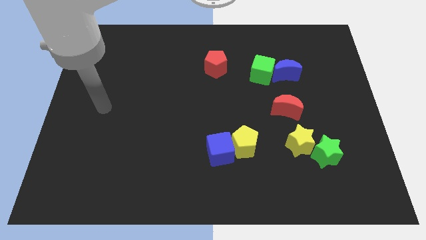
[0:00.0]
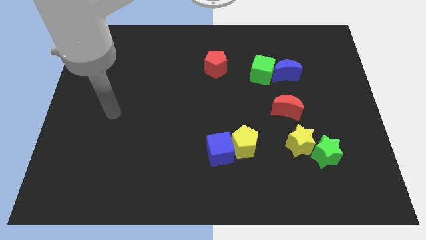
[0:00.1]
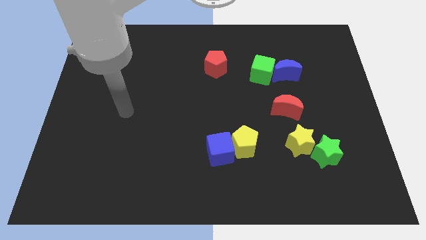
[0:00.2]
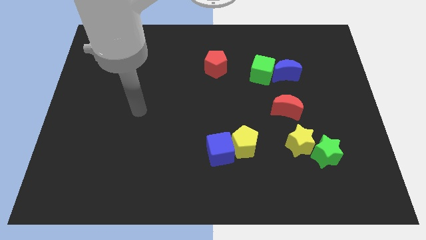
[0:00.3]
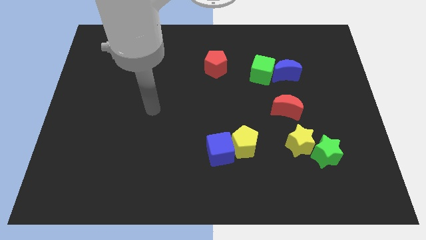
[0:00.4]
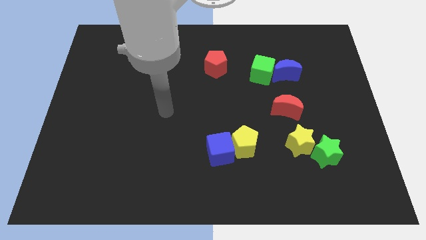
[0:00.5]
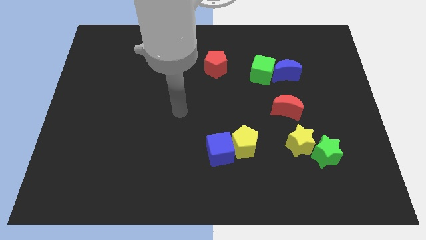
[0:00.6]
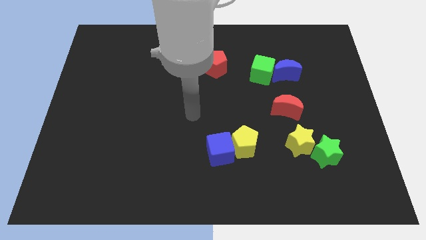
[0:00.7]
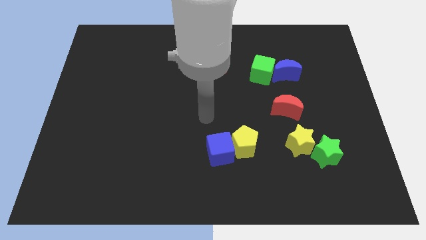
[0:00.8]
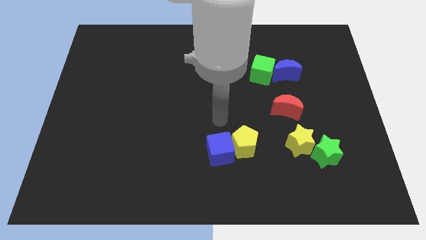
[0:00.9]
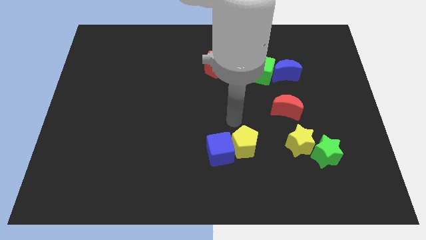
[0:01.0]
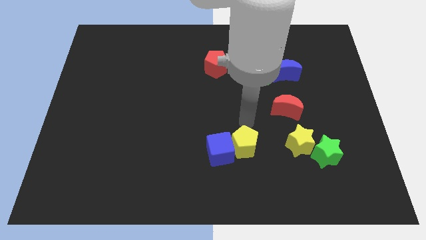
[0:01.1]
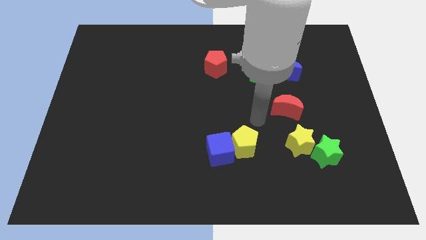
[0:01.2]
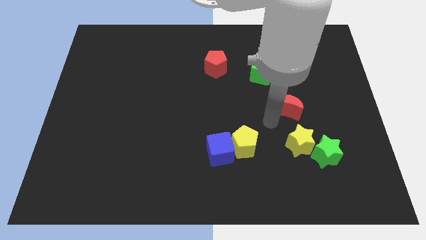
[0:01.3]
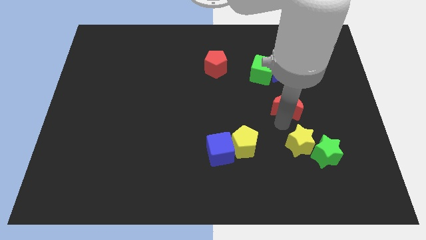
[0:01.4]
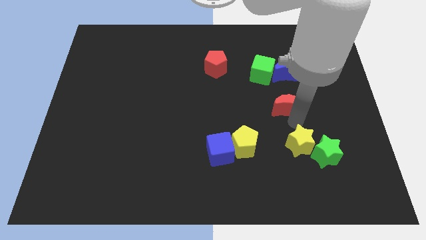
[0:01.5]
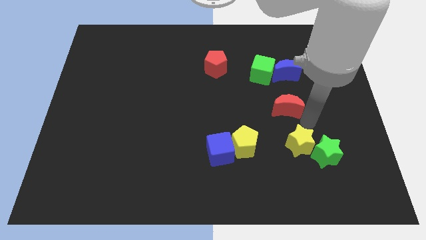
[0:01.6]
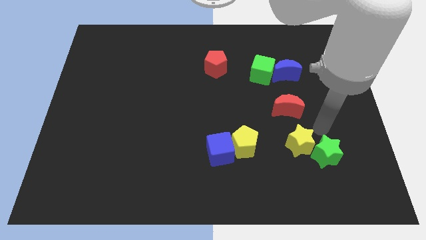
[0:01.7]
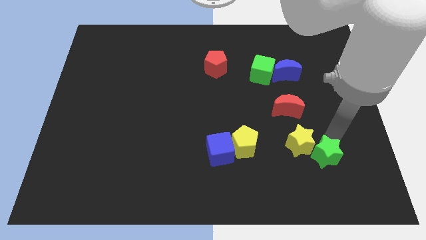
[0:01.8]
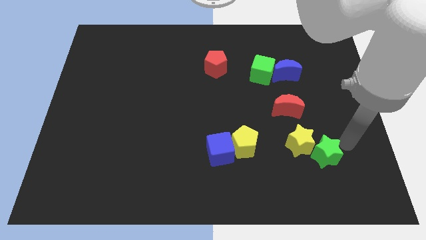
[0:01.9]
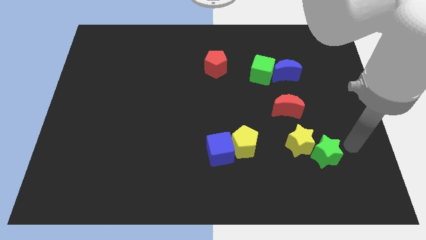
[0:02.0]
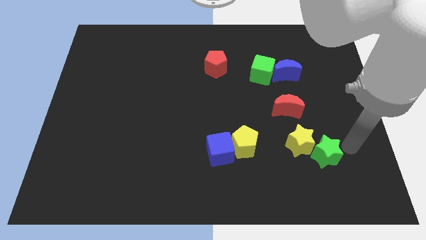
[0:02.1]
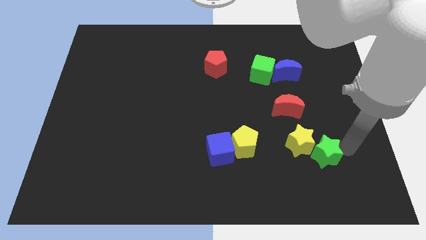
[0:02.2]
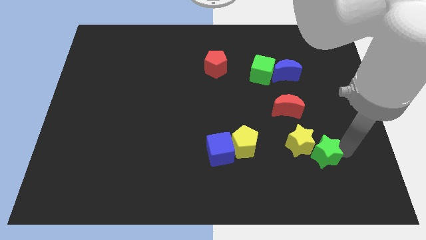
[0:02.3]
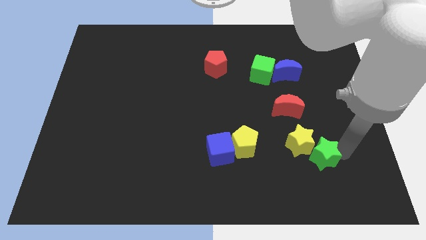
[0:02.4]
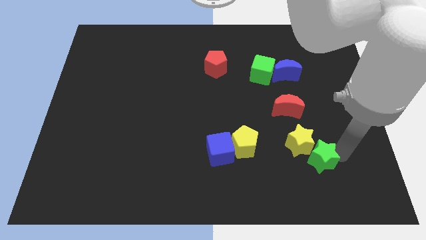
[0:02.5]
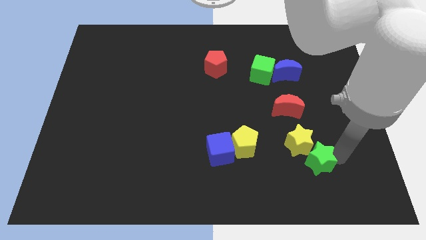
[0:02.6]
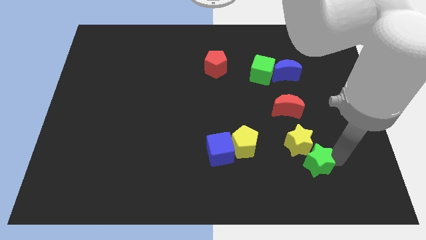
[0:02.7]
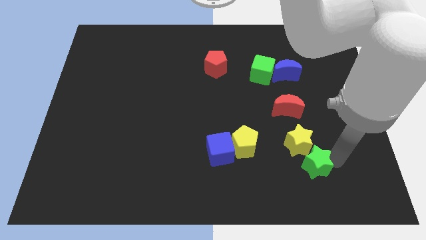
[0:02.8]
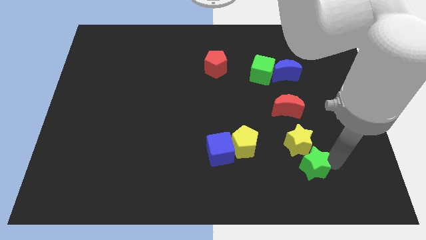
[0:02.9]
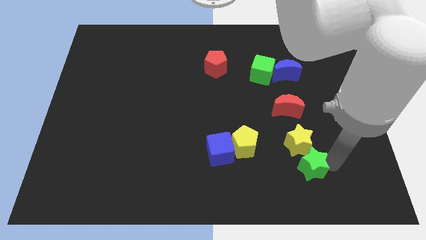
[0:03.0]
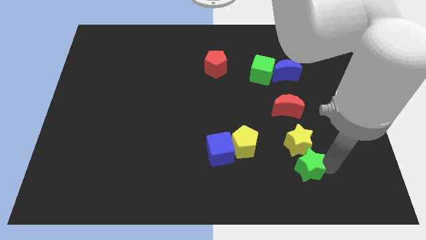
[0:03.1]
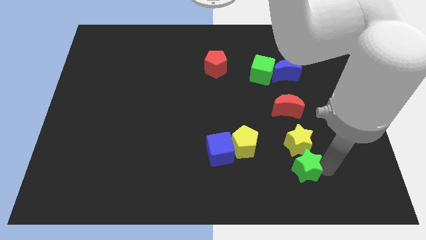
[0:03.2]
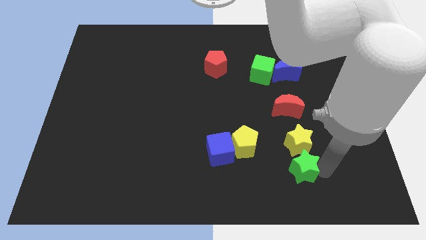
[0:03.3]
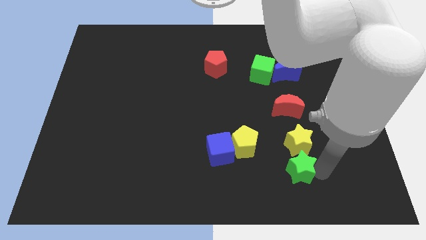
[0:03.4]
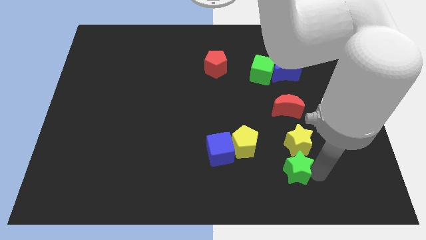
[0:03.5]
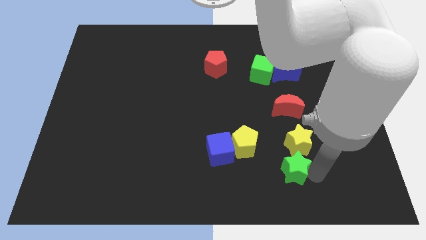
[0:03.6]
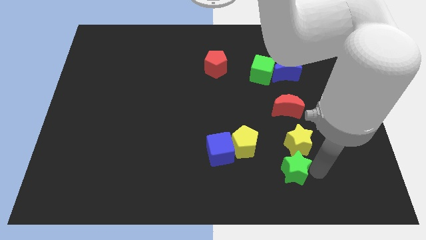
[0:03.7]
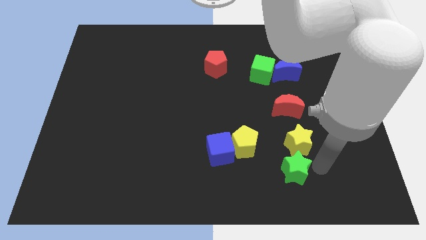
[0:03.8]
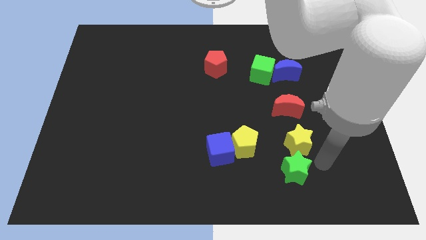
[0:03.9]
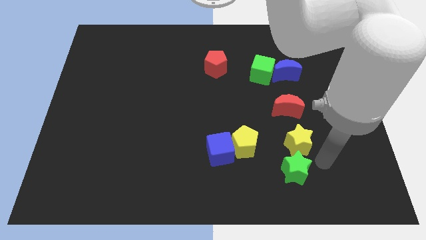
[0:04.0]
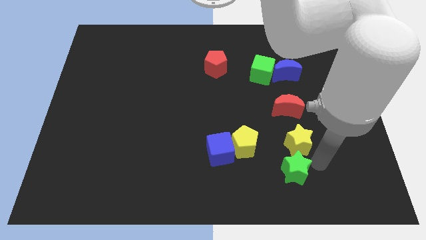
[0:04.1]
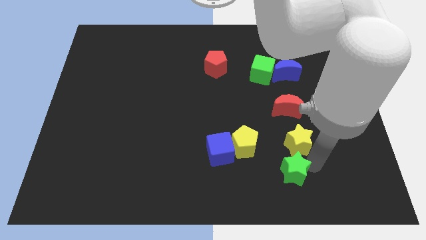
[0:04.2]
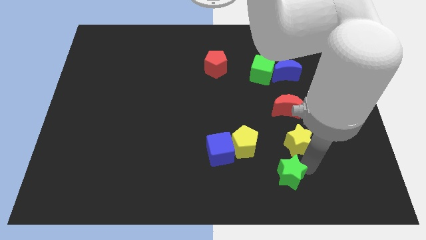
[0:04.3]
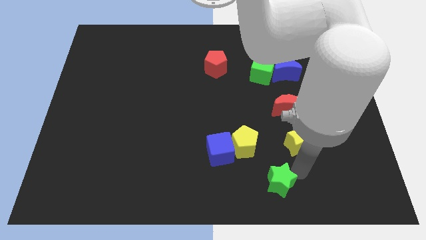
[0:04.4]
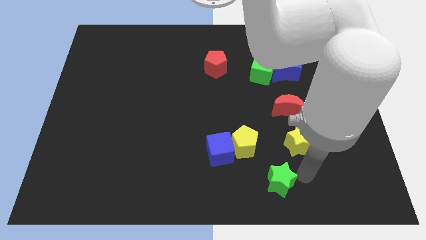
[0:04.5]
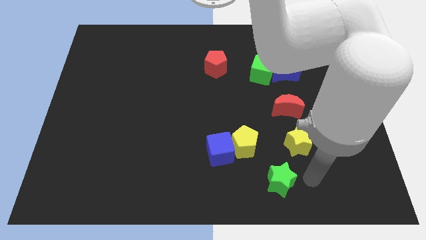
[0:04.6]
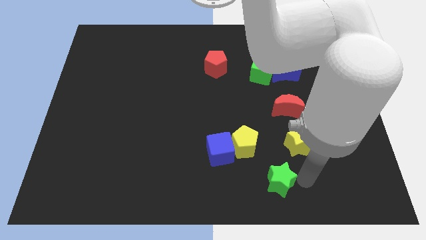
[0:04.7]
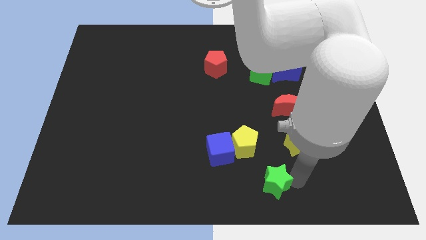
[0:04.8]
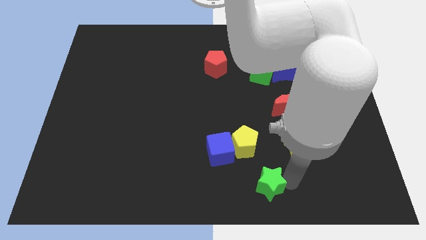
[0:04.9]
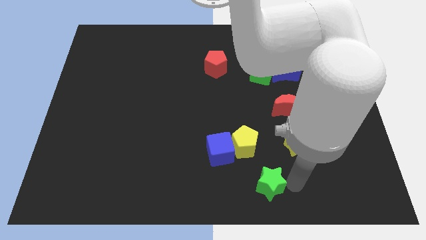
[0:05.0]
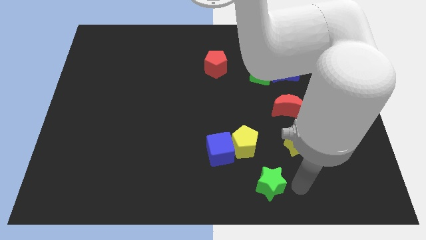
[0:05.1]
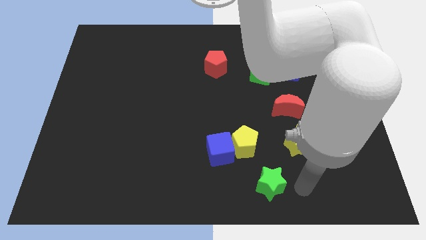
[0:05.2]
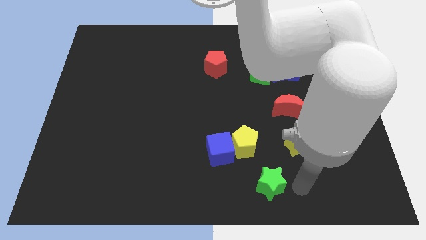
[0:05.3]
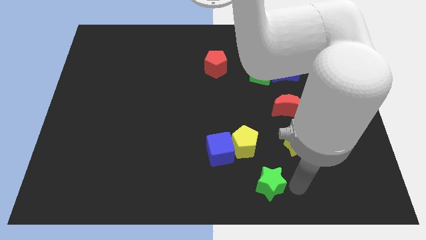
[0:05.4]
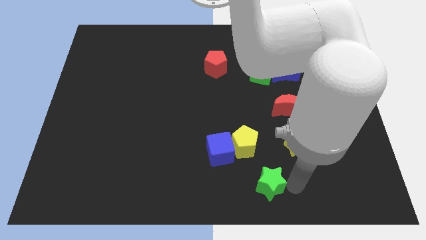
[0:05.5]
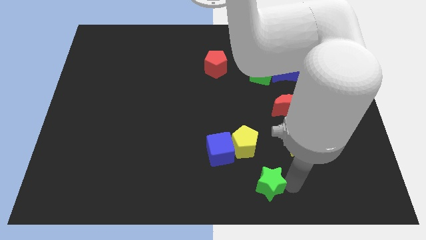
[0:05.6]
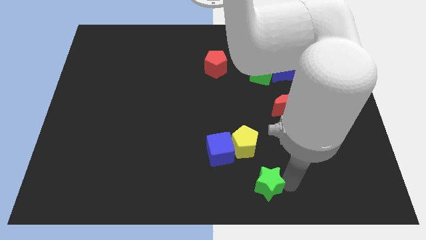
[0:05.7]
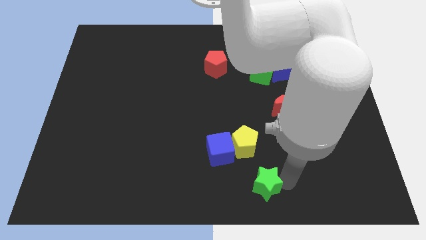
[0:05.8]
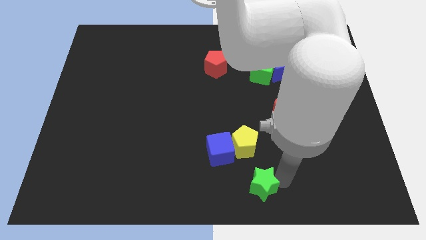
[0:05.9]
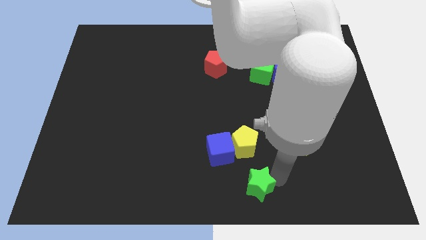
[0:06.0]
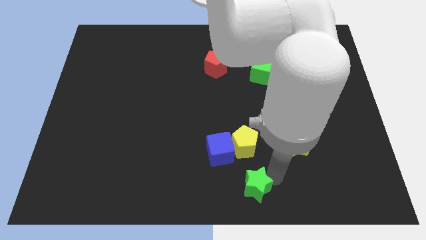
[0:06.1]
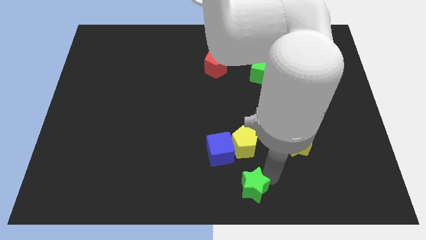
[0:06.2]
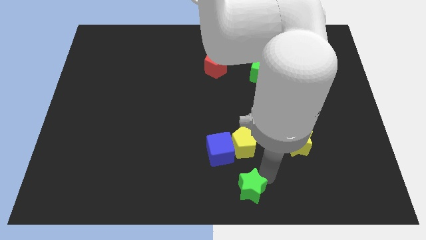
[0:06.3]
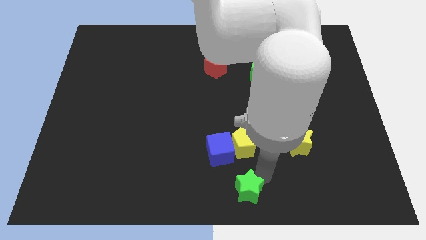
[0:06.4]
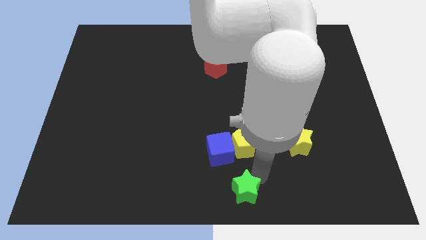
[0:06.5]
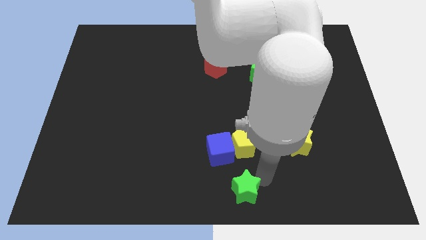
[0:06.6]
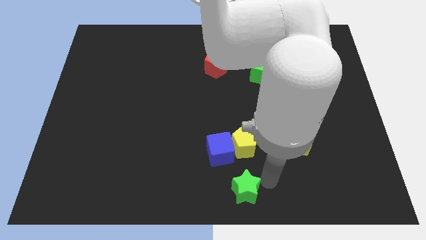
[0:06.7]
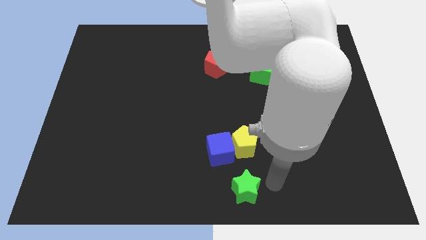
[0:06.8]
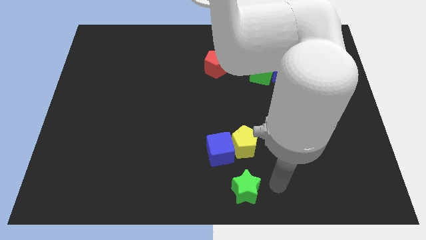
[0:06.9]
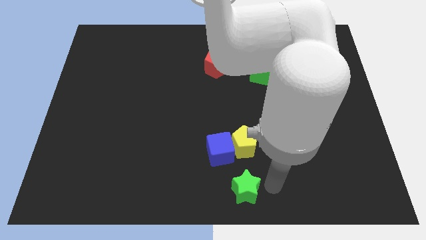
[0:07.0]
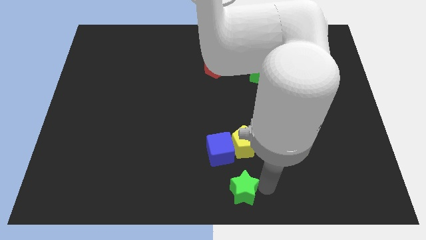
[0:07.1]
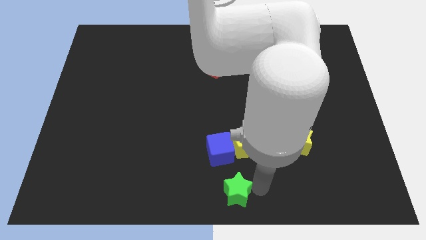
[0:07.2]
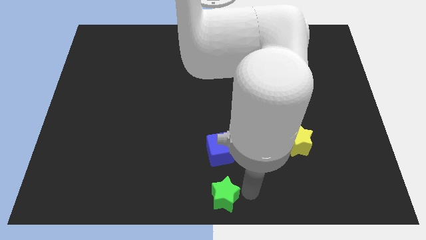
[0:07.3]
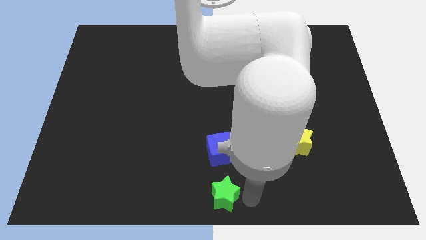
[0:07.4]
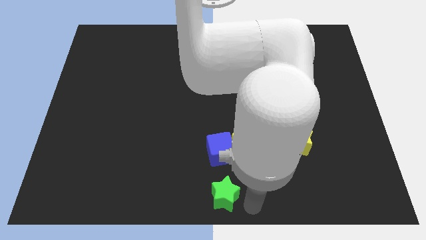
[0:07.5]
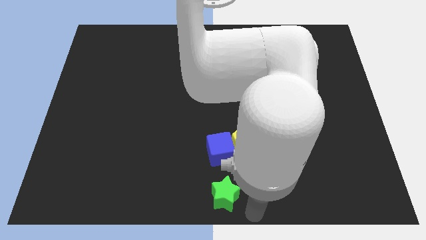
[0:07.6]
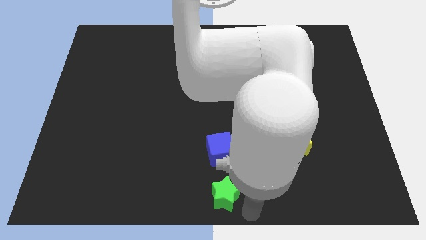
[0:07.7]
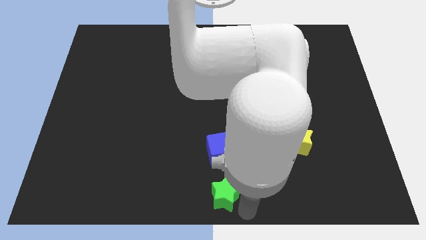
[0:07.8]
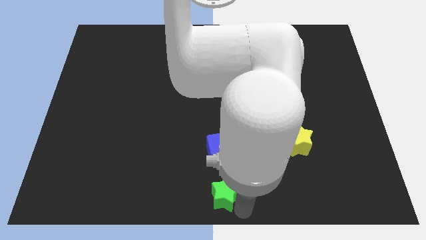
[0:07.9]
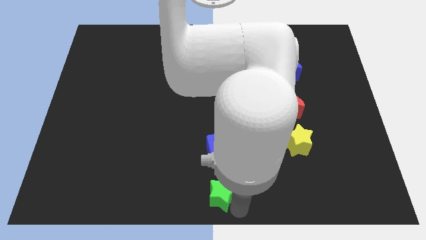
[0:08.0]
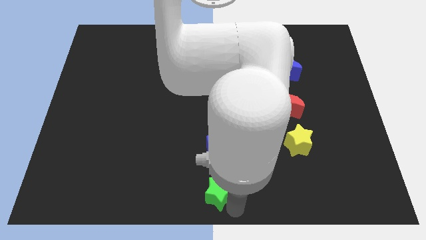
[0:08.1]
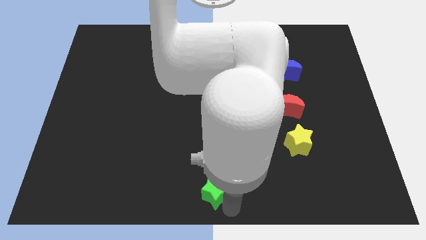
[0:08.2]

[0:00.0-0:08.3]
push the green star to the left
